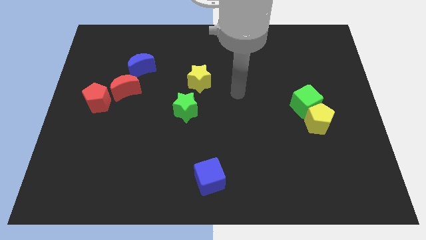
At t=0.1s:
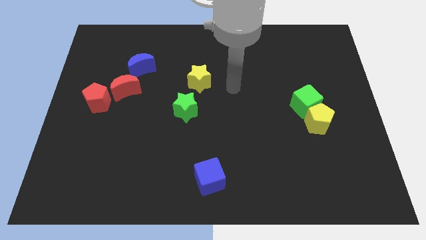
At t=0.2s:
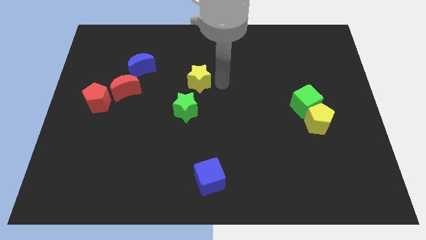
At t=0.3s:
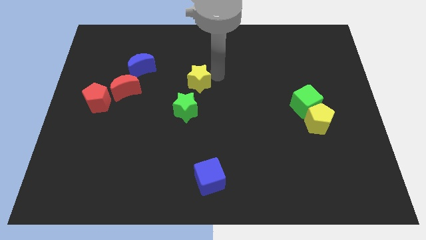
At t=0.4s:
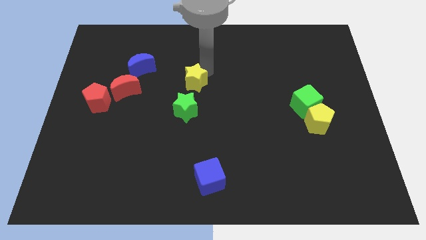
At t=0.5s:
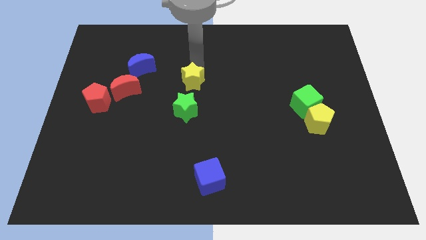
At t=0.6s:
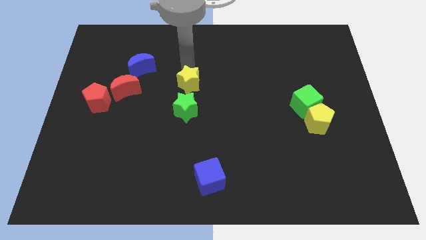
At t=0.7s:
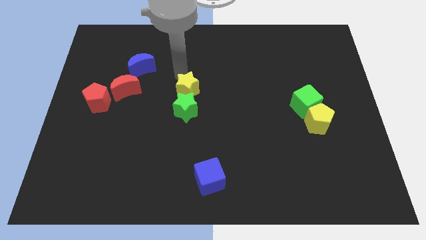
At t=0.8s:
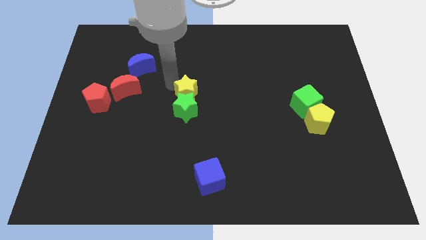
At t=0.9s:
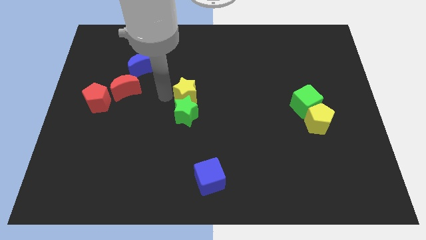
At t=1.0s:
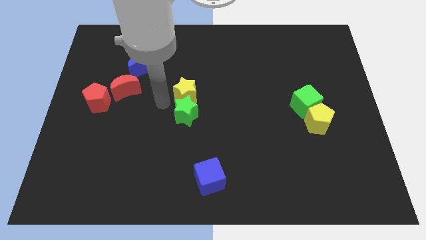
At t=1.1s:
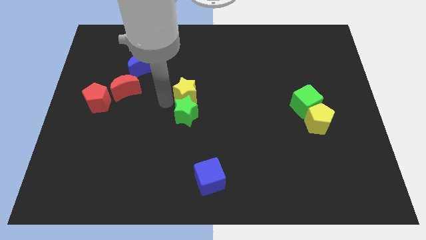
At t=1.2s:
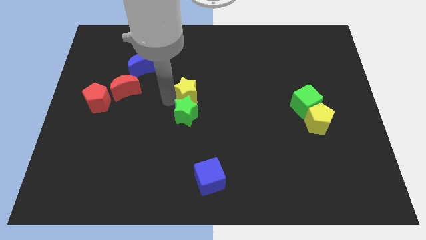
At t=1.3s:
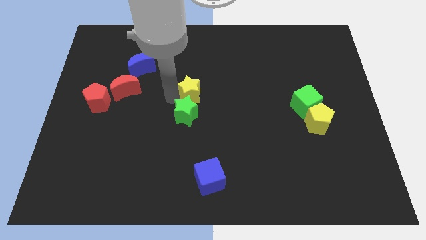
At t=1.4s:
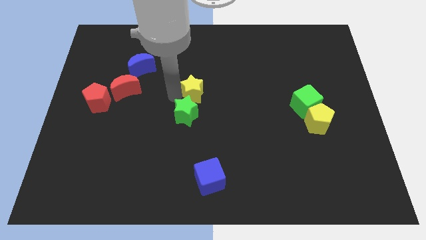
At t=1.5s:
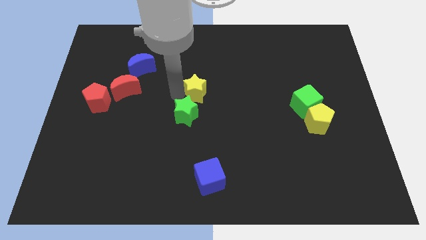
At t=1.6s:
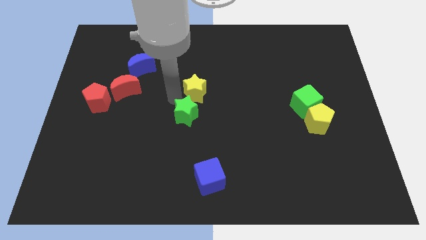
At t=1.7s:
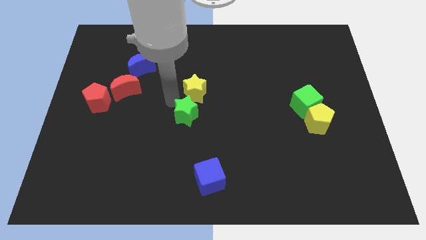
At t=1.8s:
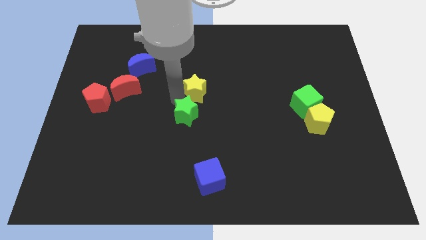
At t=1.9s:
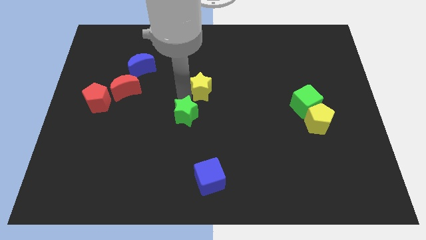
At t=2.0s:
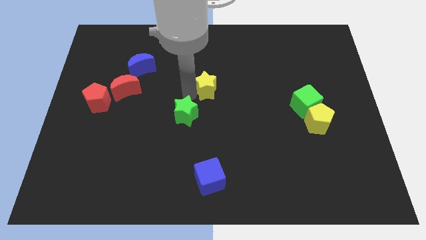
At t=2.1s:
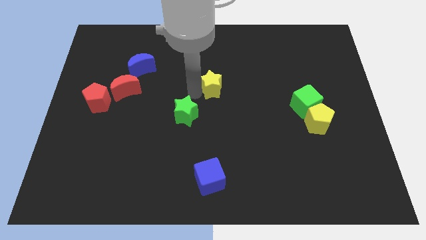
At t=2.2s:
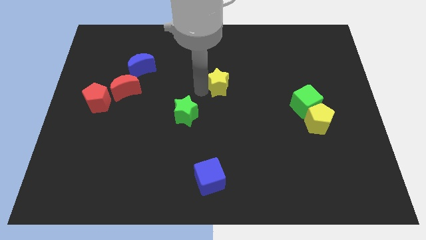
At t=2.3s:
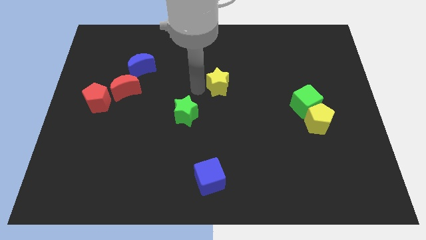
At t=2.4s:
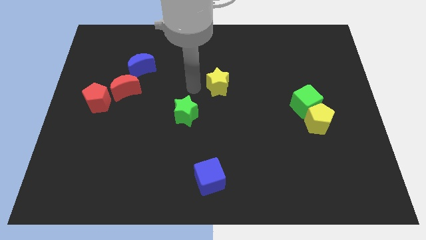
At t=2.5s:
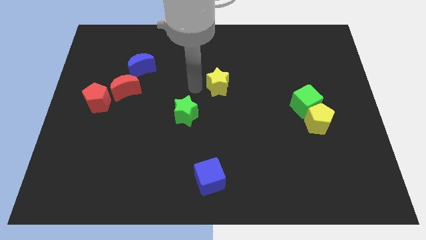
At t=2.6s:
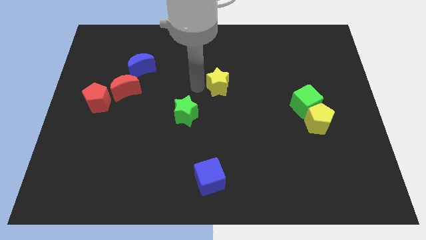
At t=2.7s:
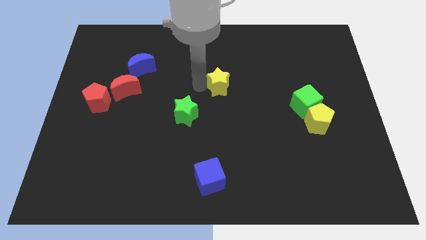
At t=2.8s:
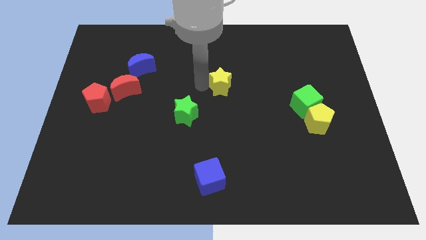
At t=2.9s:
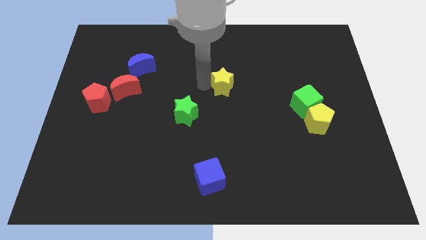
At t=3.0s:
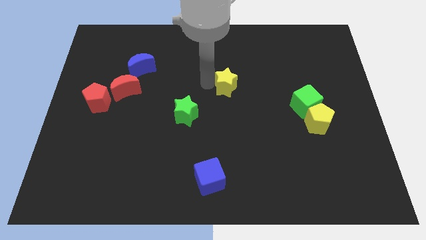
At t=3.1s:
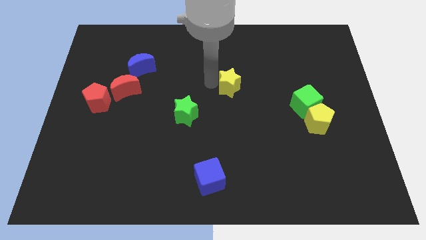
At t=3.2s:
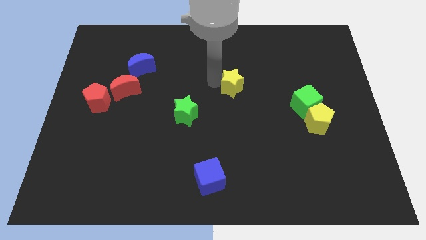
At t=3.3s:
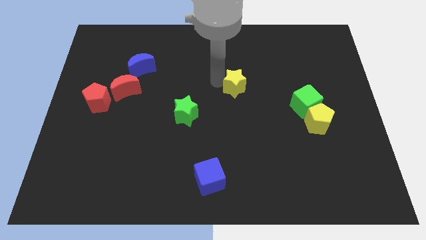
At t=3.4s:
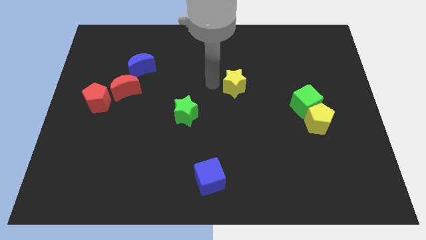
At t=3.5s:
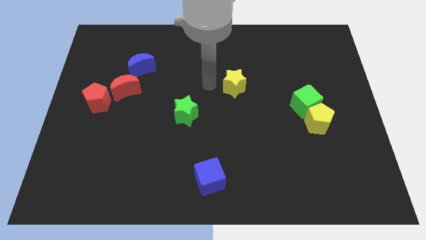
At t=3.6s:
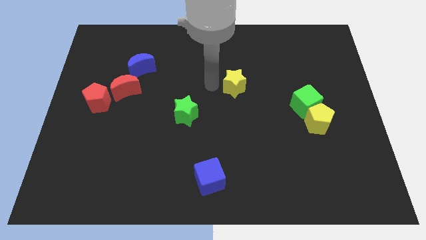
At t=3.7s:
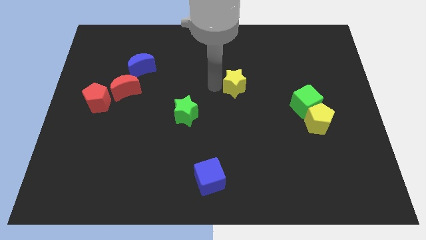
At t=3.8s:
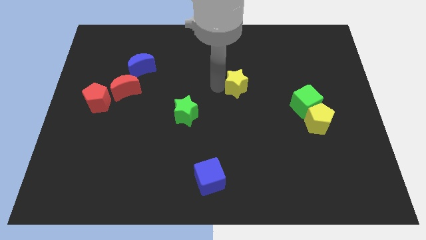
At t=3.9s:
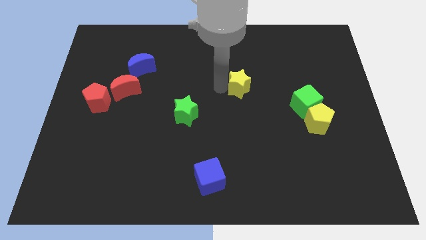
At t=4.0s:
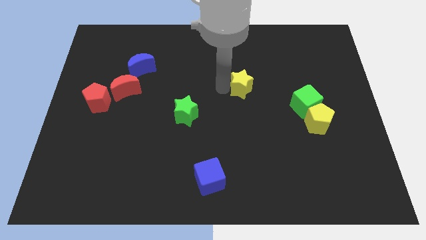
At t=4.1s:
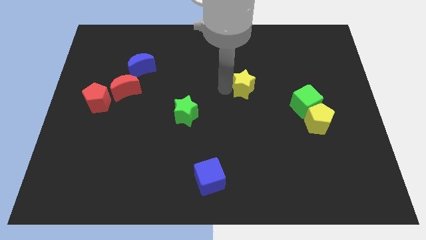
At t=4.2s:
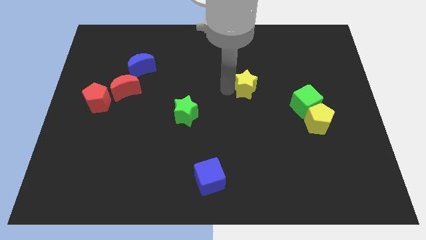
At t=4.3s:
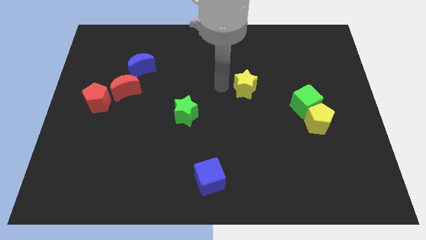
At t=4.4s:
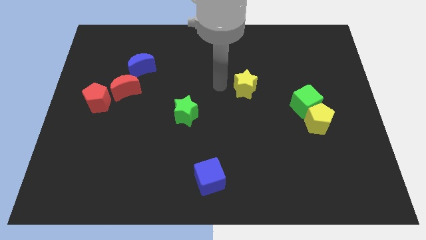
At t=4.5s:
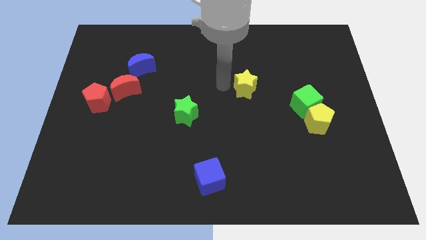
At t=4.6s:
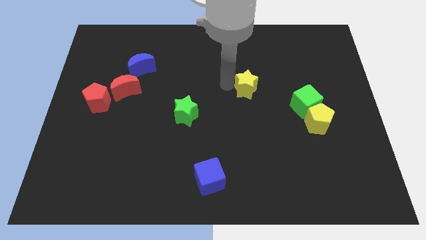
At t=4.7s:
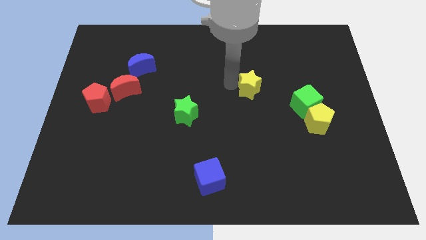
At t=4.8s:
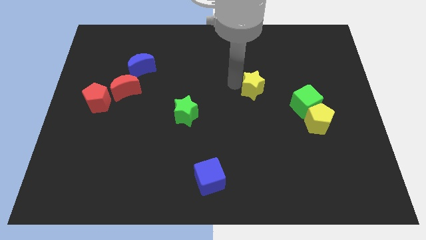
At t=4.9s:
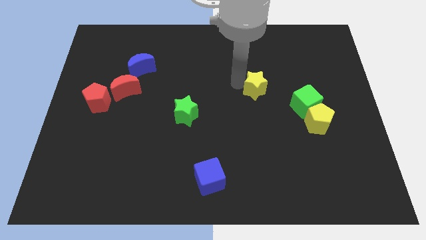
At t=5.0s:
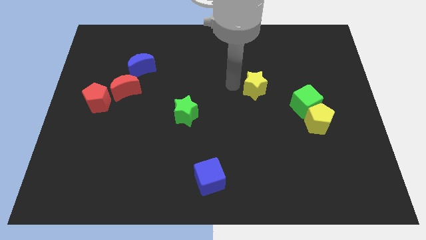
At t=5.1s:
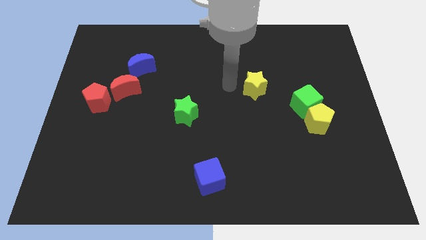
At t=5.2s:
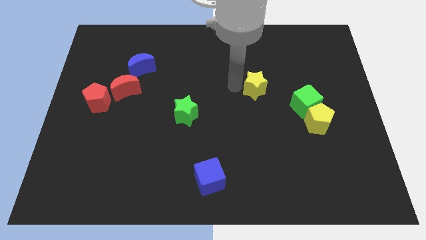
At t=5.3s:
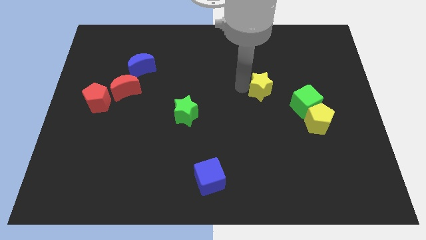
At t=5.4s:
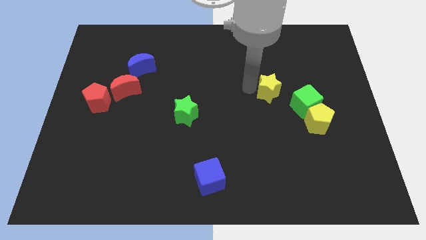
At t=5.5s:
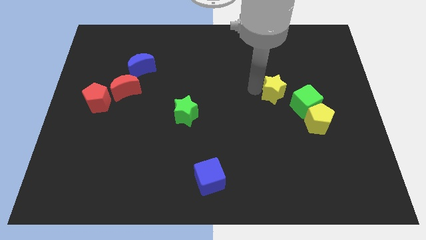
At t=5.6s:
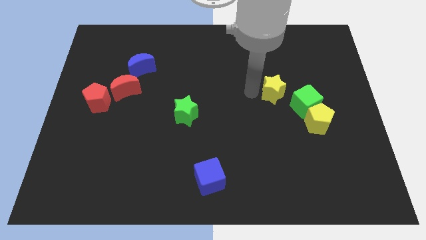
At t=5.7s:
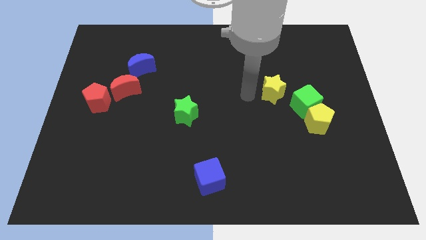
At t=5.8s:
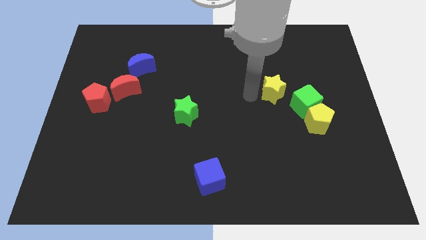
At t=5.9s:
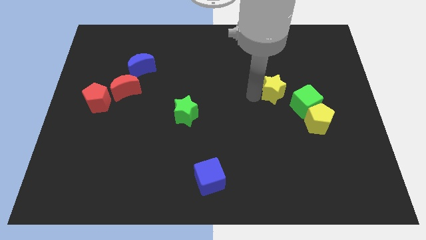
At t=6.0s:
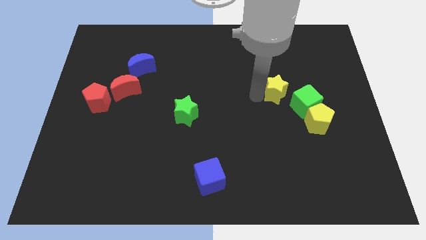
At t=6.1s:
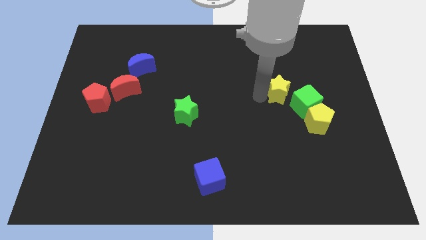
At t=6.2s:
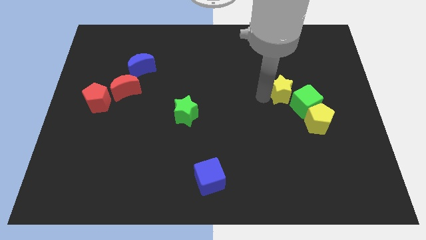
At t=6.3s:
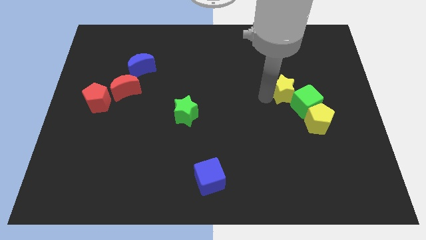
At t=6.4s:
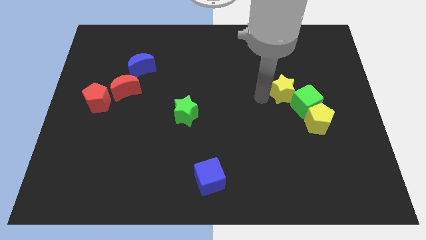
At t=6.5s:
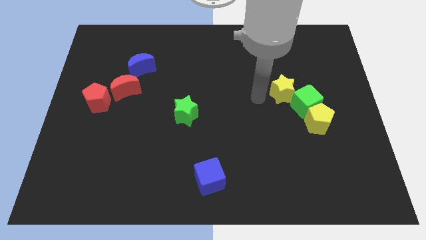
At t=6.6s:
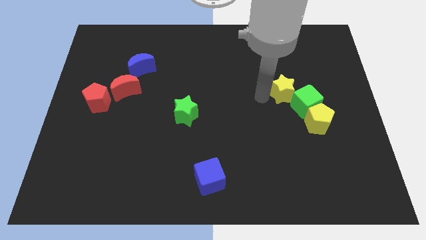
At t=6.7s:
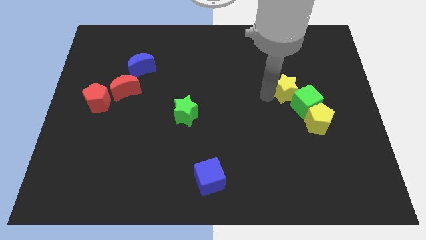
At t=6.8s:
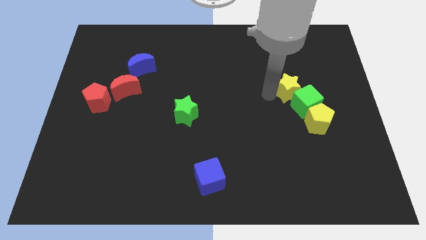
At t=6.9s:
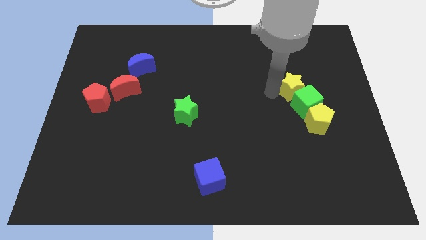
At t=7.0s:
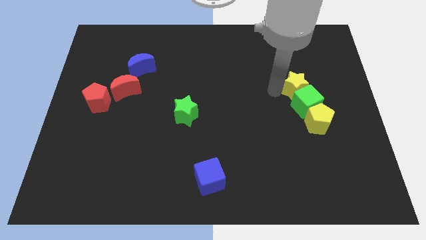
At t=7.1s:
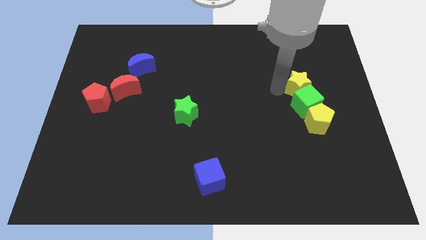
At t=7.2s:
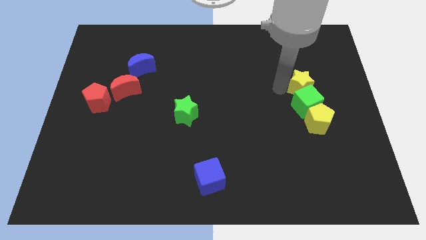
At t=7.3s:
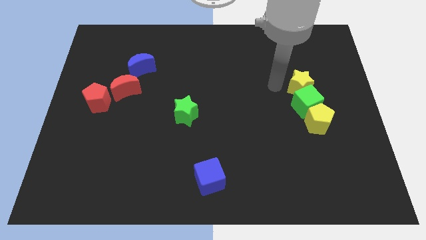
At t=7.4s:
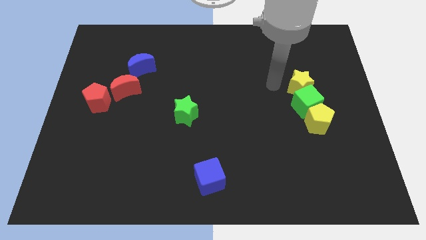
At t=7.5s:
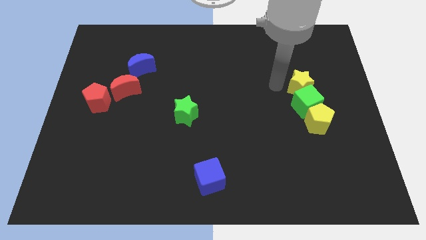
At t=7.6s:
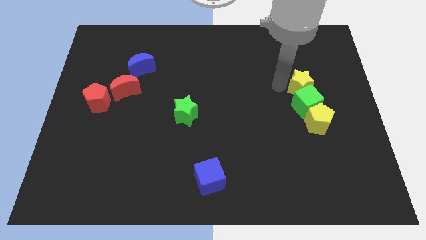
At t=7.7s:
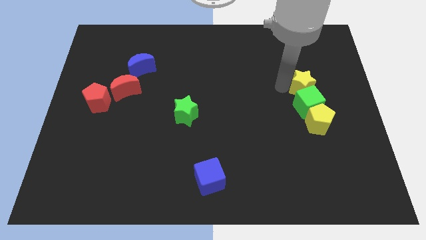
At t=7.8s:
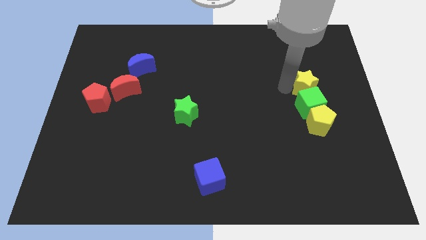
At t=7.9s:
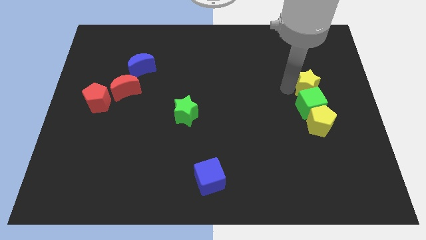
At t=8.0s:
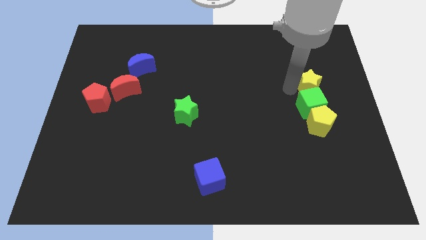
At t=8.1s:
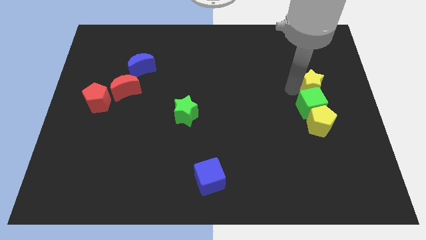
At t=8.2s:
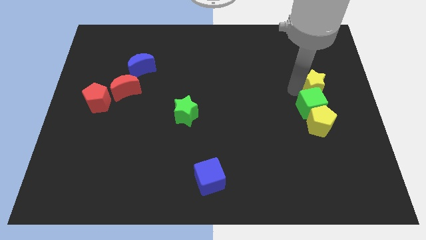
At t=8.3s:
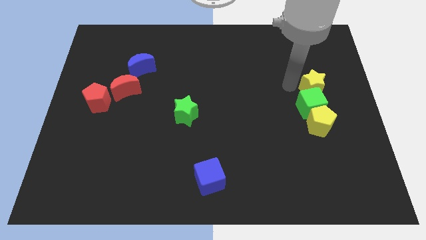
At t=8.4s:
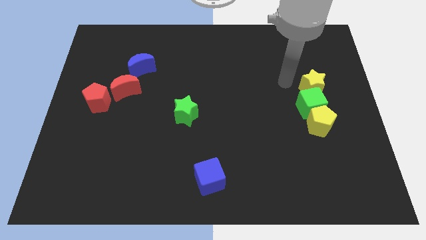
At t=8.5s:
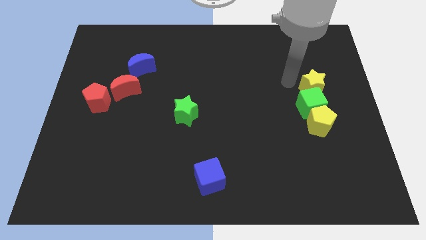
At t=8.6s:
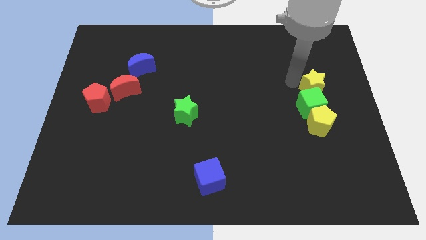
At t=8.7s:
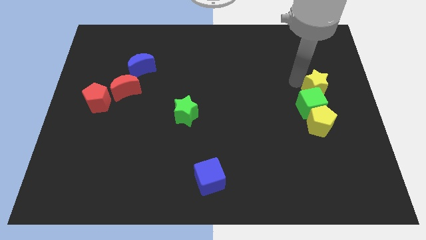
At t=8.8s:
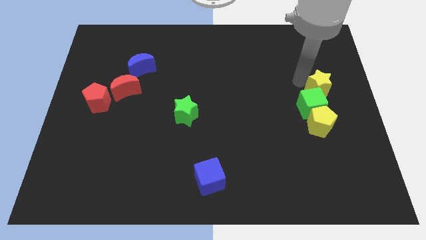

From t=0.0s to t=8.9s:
slide the yellow star to the right side of the board
